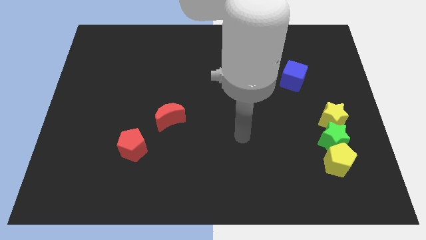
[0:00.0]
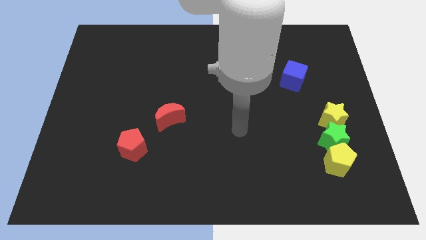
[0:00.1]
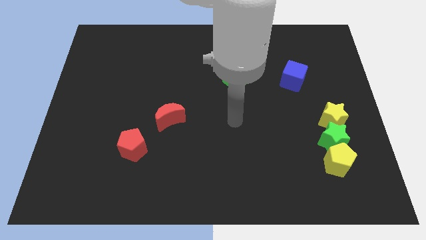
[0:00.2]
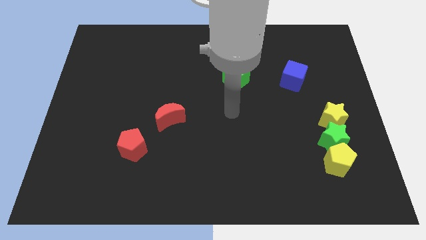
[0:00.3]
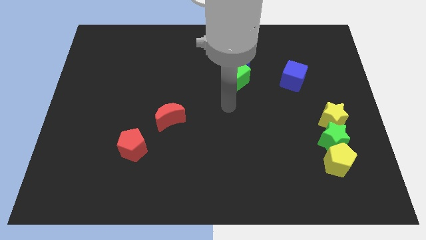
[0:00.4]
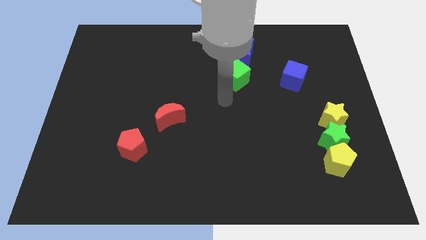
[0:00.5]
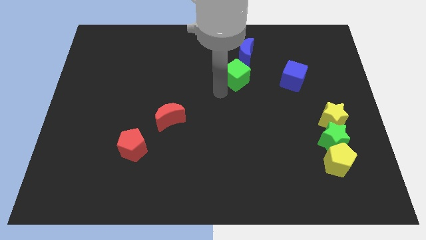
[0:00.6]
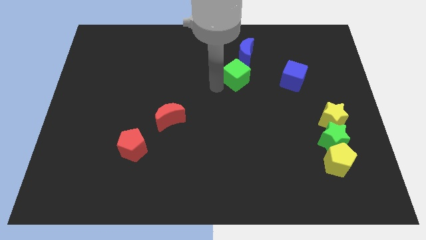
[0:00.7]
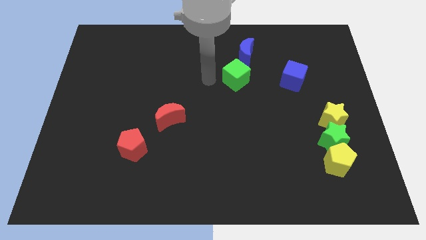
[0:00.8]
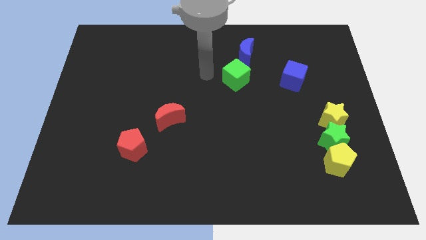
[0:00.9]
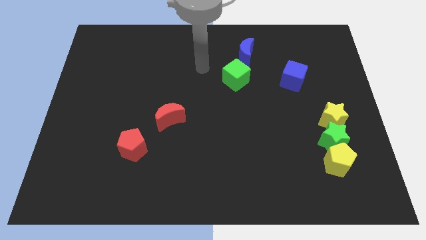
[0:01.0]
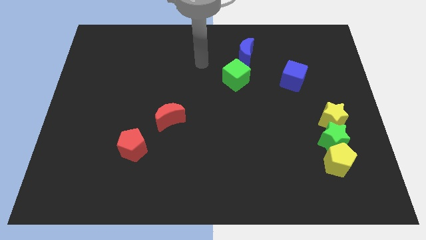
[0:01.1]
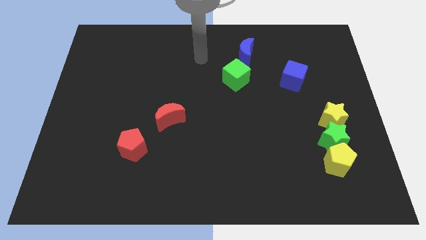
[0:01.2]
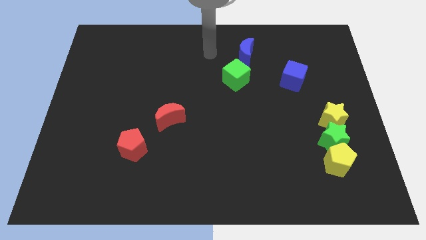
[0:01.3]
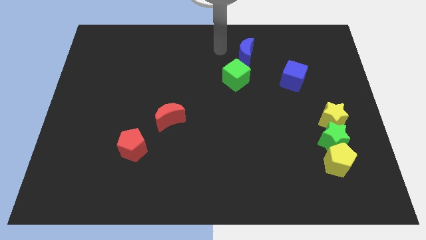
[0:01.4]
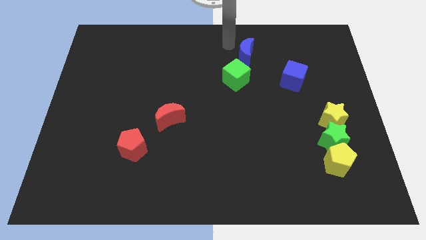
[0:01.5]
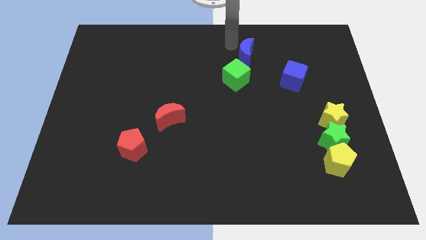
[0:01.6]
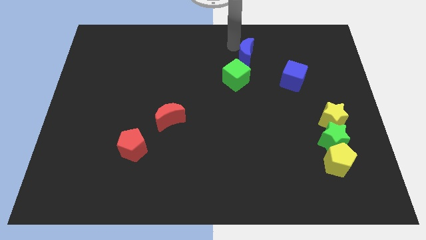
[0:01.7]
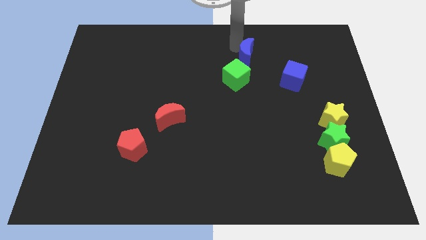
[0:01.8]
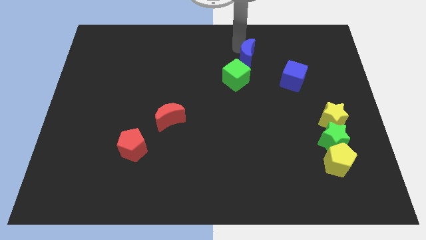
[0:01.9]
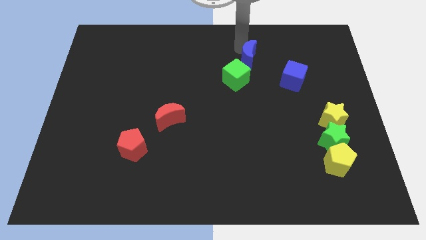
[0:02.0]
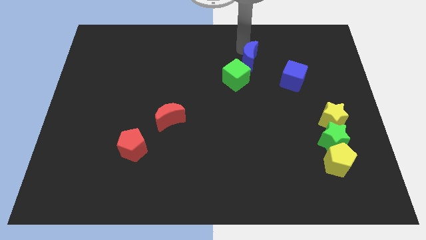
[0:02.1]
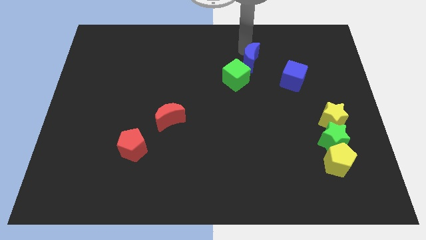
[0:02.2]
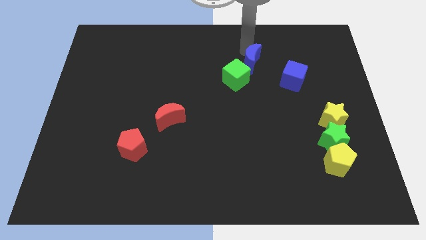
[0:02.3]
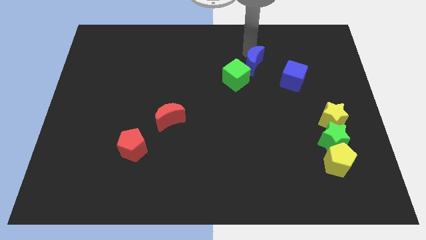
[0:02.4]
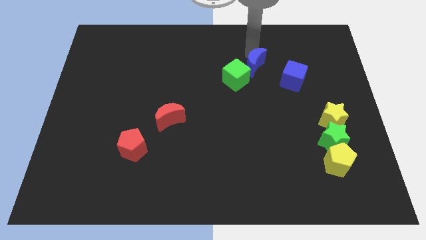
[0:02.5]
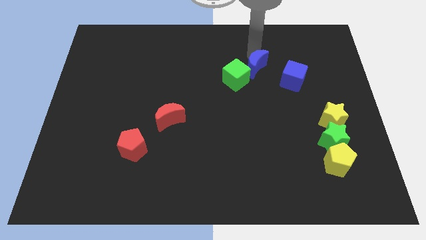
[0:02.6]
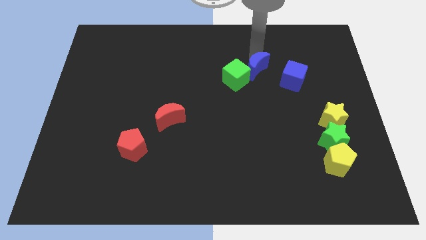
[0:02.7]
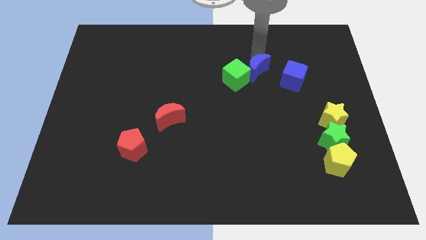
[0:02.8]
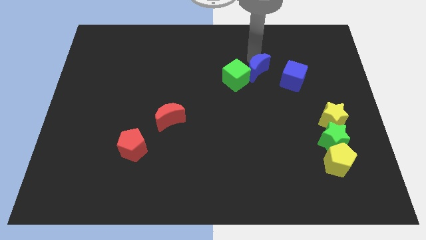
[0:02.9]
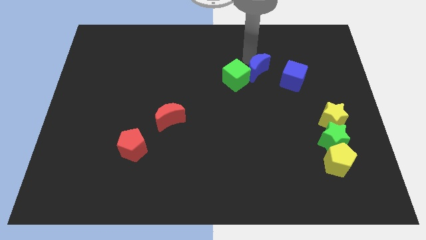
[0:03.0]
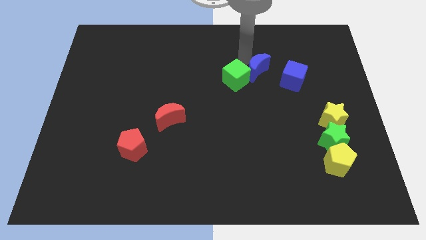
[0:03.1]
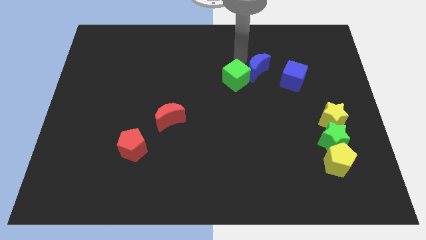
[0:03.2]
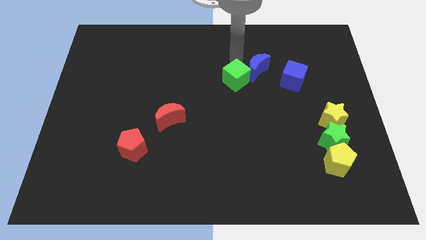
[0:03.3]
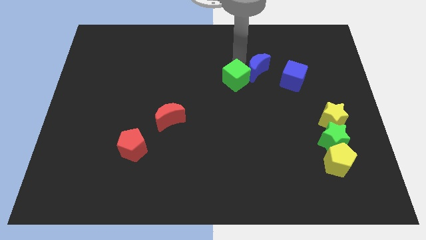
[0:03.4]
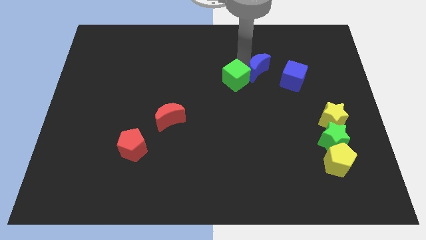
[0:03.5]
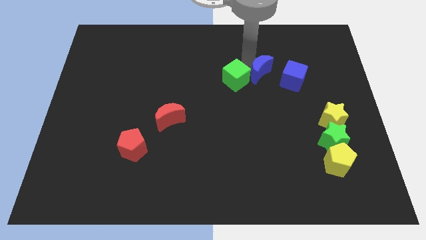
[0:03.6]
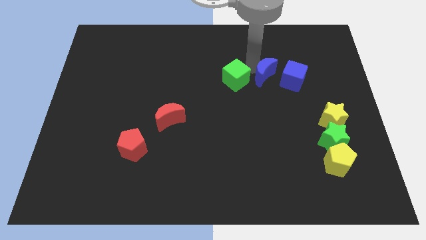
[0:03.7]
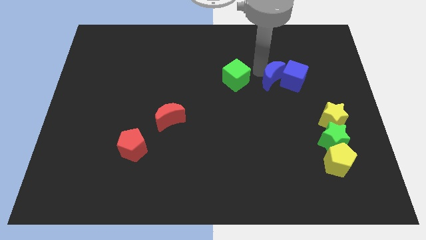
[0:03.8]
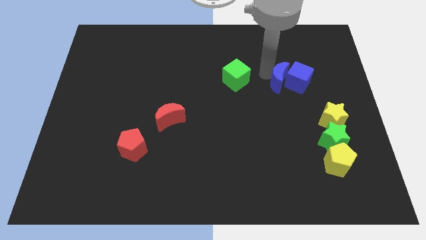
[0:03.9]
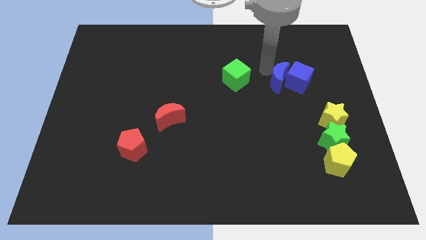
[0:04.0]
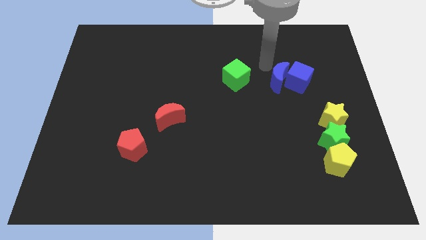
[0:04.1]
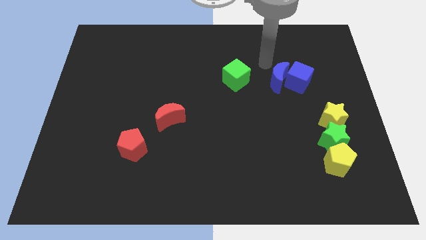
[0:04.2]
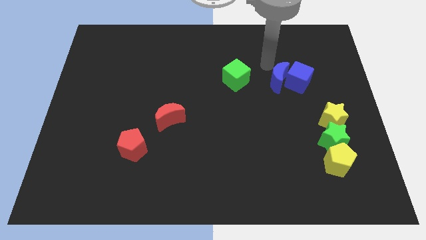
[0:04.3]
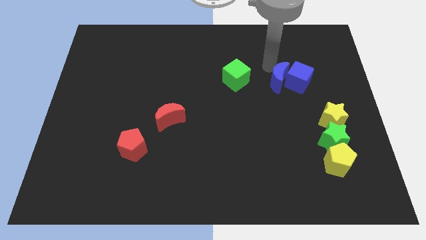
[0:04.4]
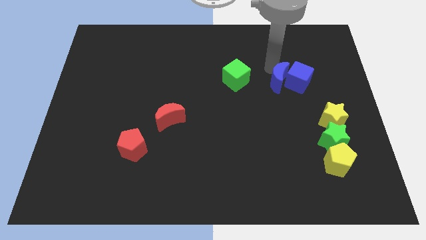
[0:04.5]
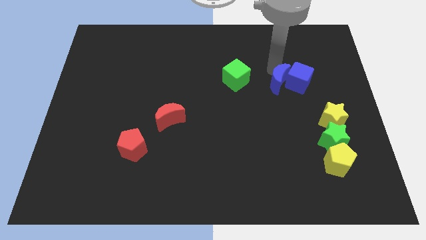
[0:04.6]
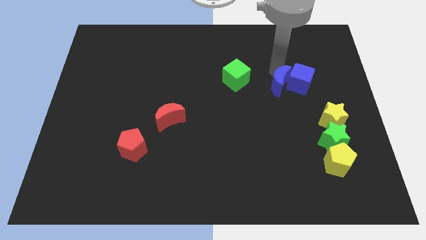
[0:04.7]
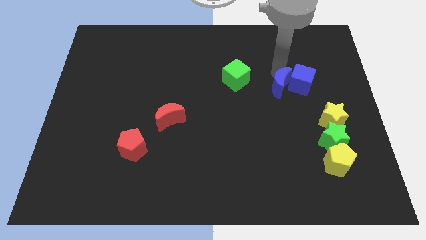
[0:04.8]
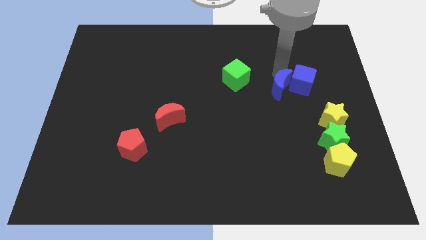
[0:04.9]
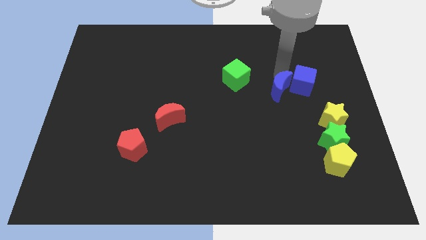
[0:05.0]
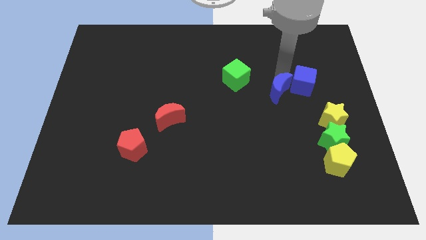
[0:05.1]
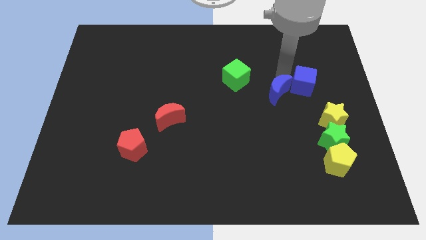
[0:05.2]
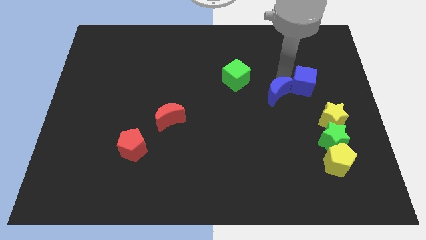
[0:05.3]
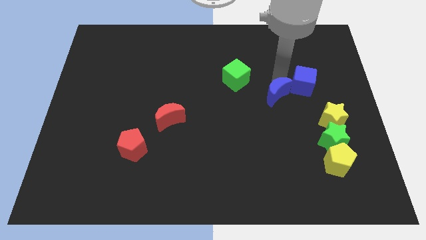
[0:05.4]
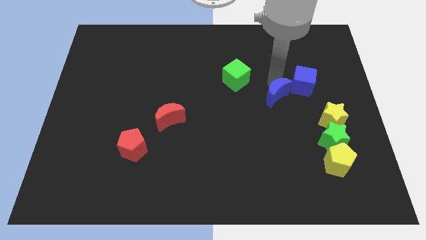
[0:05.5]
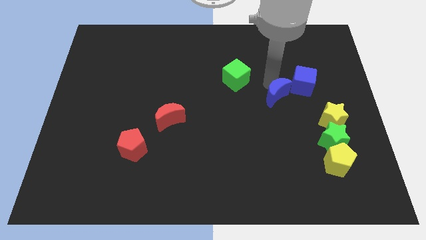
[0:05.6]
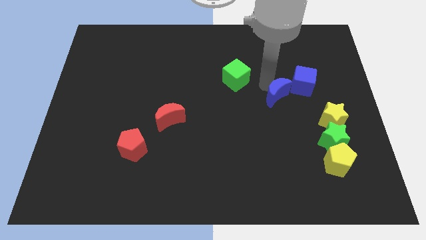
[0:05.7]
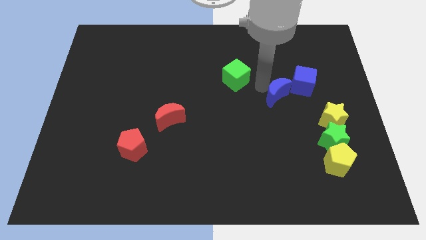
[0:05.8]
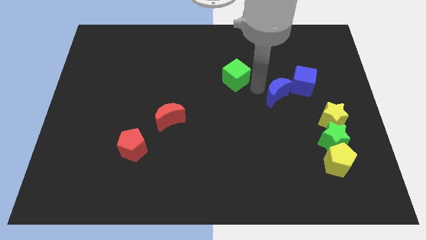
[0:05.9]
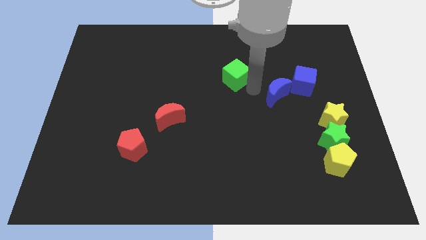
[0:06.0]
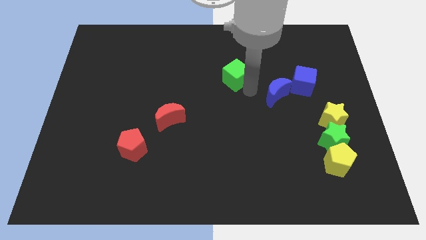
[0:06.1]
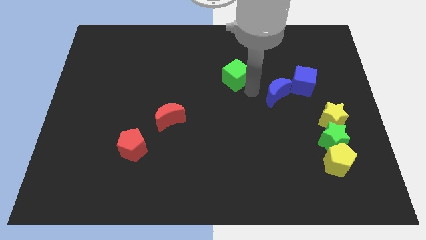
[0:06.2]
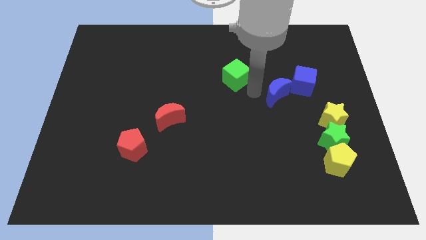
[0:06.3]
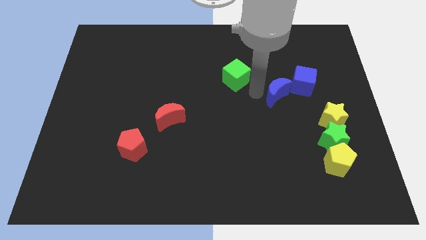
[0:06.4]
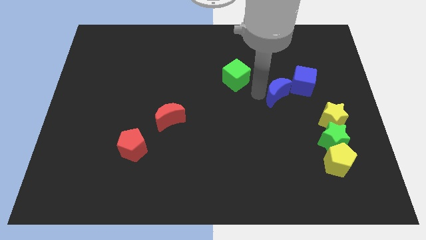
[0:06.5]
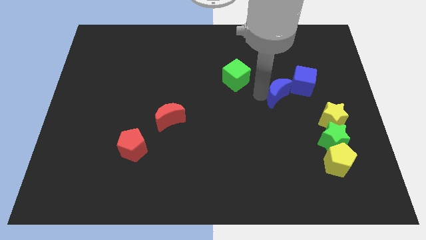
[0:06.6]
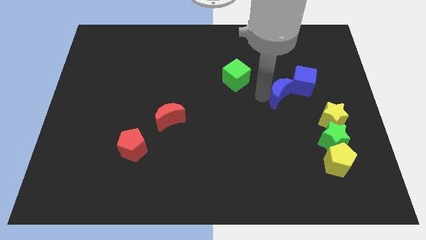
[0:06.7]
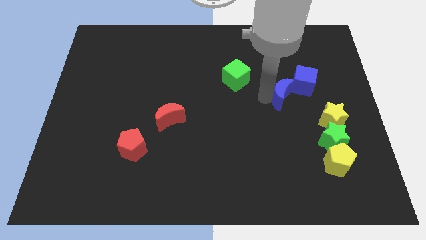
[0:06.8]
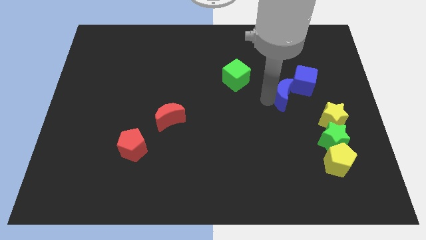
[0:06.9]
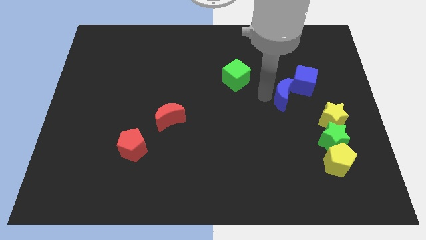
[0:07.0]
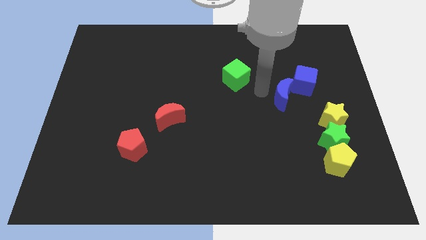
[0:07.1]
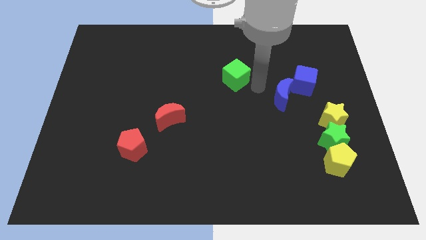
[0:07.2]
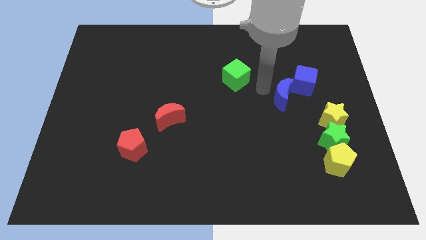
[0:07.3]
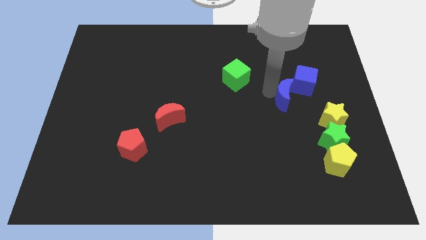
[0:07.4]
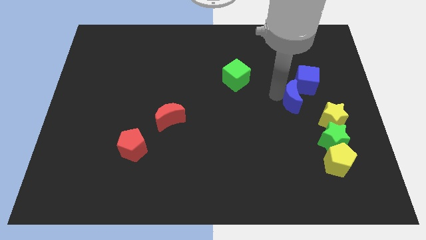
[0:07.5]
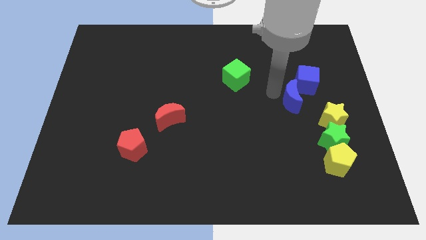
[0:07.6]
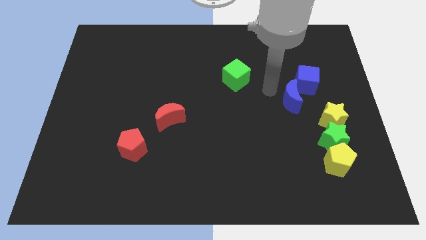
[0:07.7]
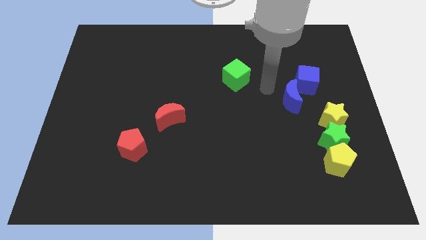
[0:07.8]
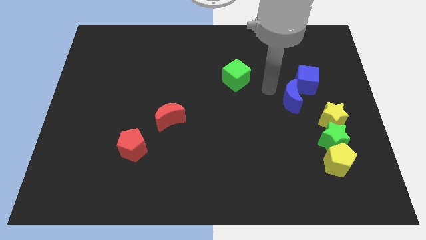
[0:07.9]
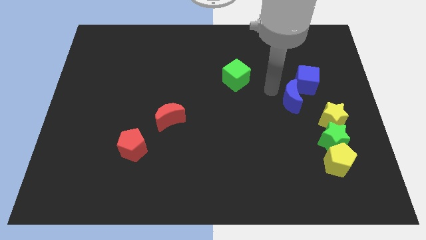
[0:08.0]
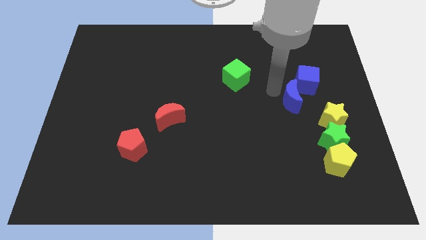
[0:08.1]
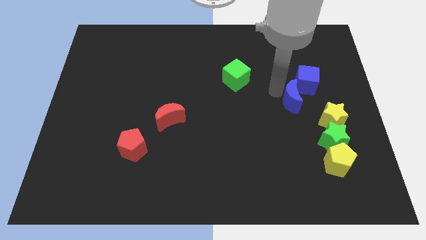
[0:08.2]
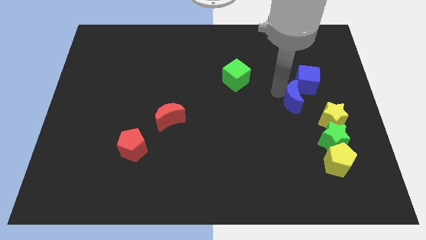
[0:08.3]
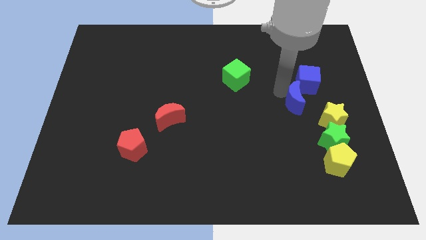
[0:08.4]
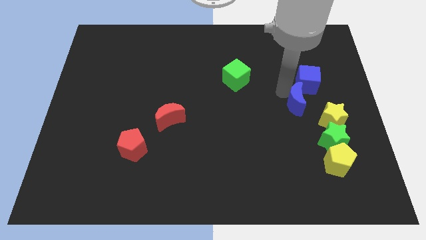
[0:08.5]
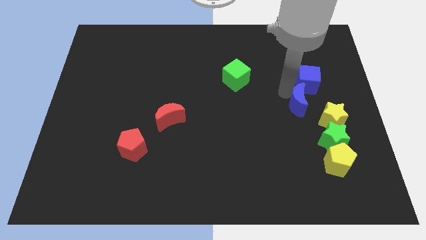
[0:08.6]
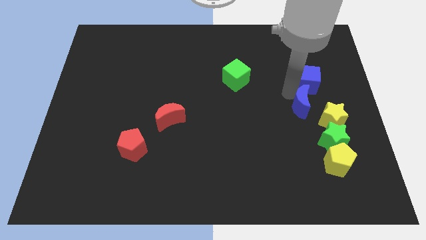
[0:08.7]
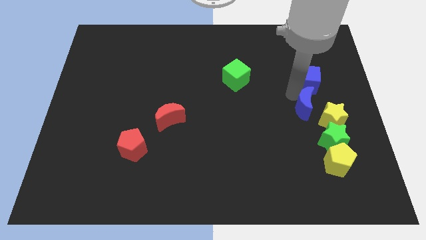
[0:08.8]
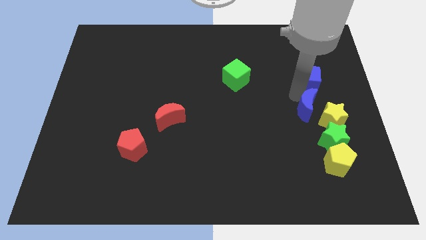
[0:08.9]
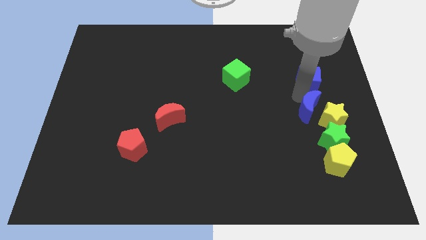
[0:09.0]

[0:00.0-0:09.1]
slide the blue moon towards the yellow star
